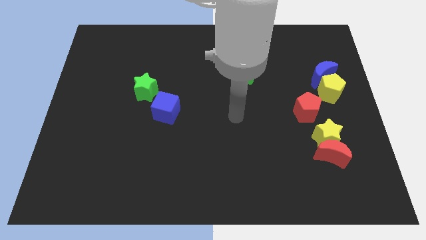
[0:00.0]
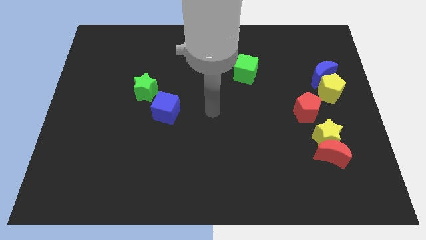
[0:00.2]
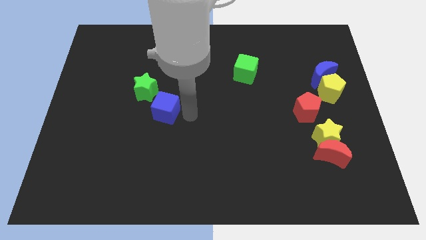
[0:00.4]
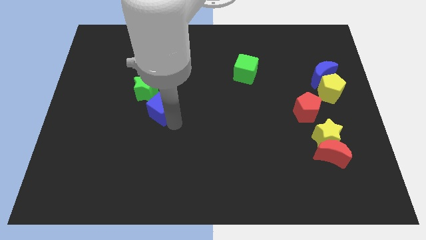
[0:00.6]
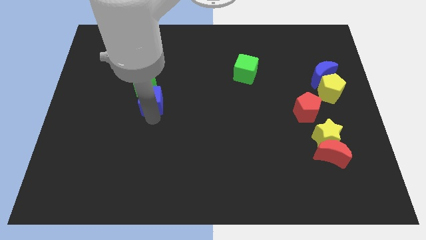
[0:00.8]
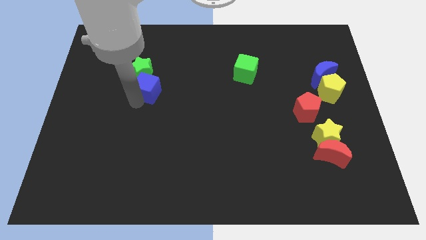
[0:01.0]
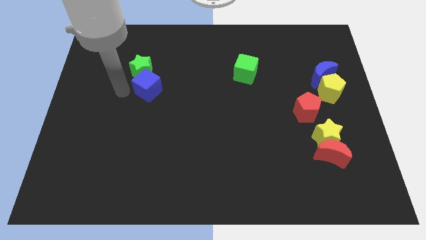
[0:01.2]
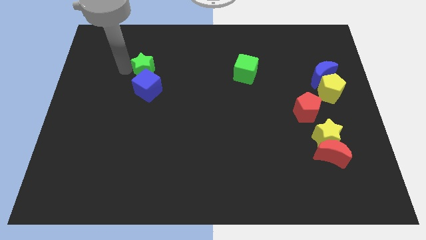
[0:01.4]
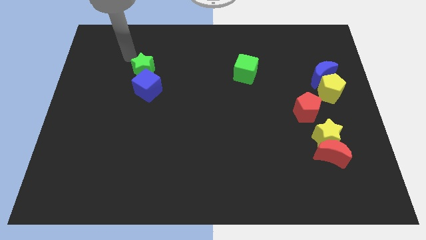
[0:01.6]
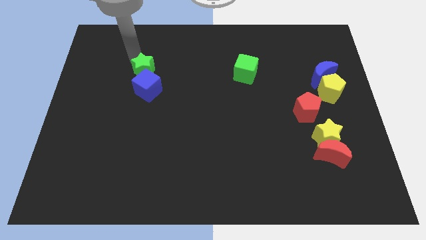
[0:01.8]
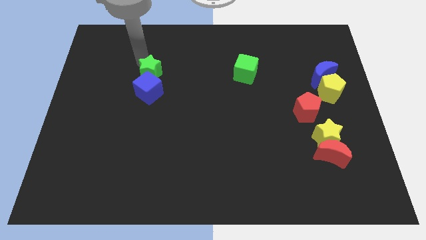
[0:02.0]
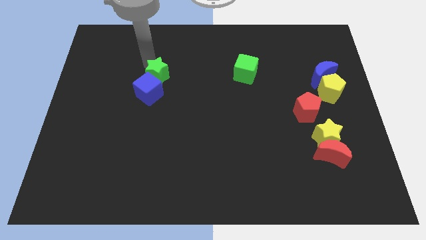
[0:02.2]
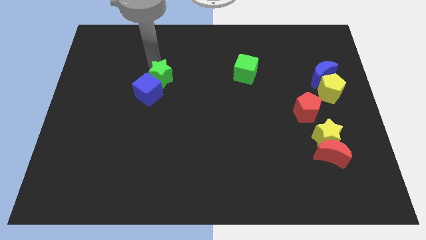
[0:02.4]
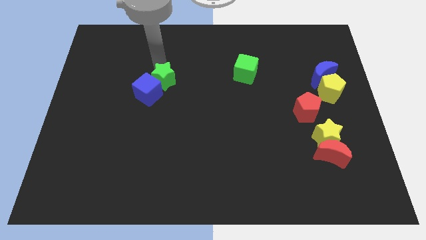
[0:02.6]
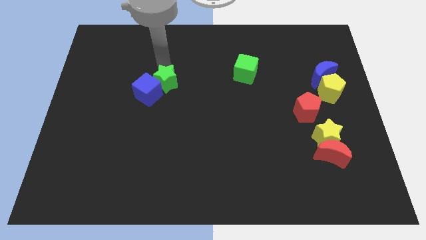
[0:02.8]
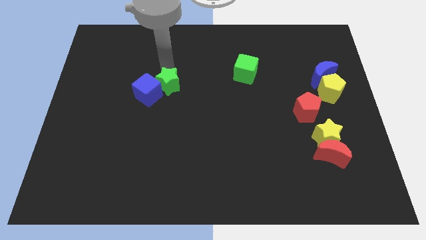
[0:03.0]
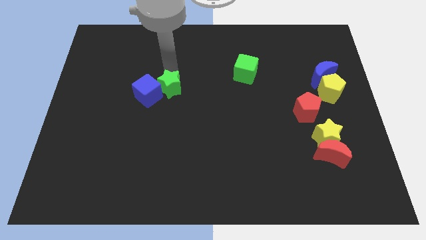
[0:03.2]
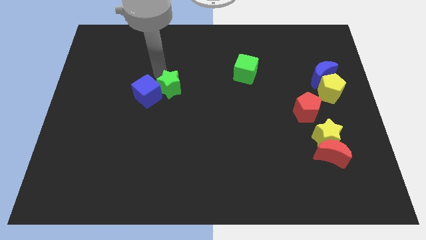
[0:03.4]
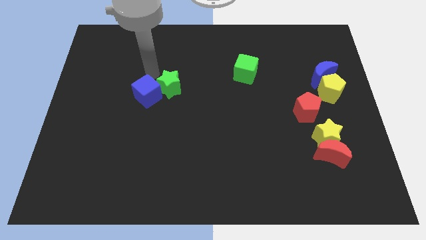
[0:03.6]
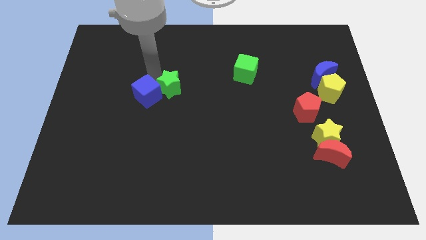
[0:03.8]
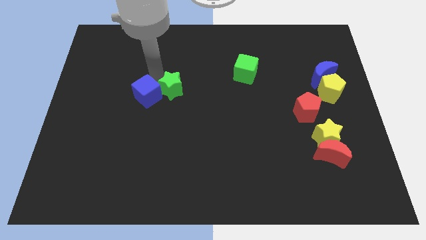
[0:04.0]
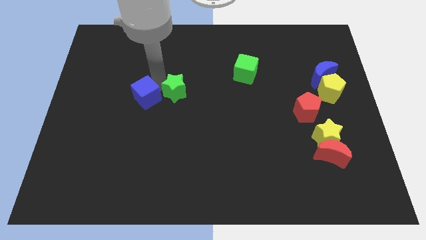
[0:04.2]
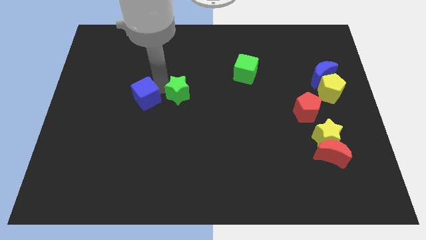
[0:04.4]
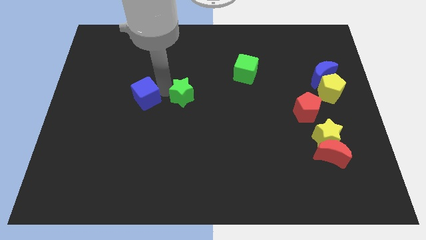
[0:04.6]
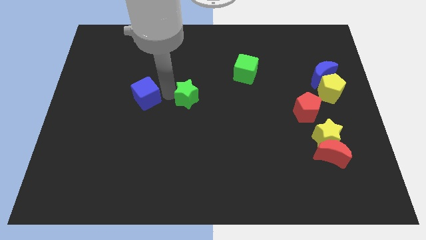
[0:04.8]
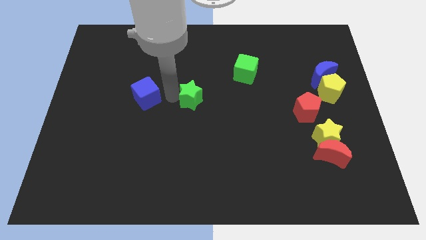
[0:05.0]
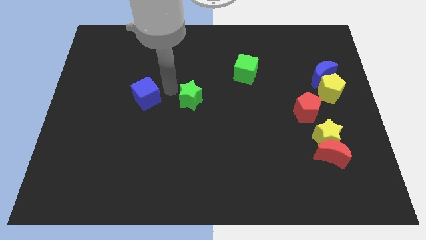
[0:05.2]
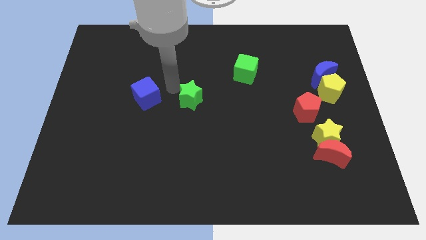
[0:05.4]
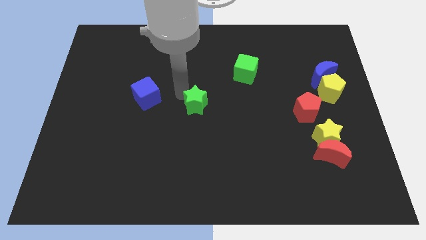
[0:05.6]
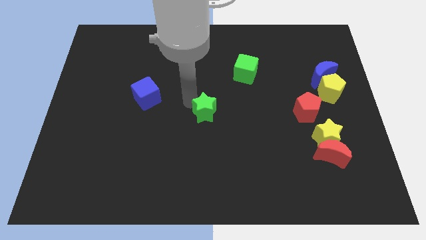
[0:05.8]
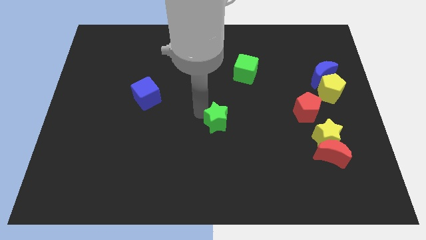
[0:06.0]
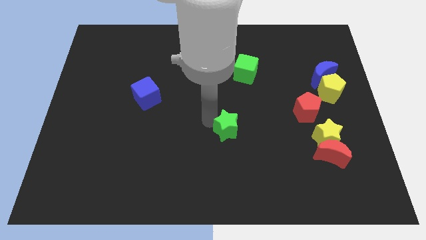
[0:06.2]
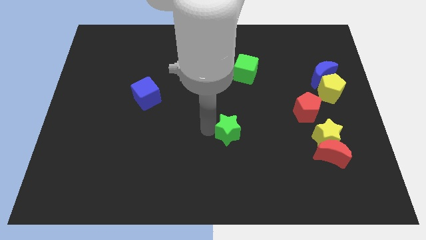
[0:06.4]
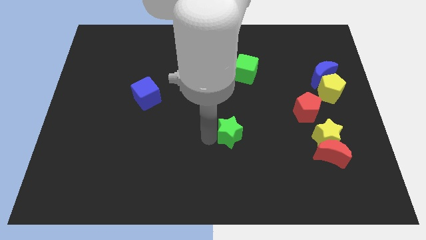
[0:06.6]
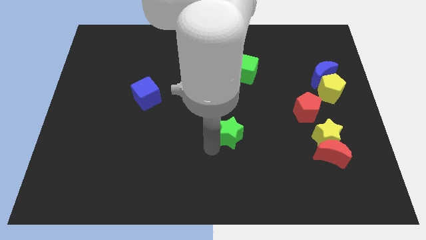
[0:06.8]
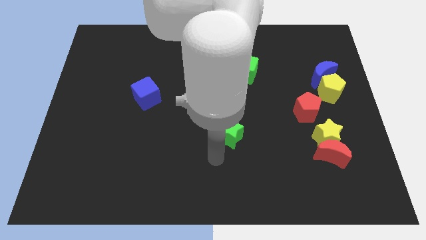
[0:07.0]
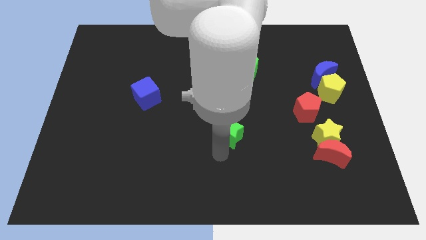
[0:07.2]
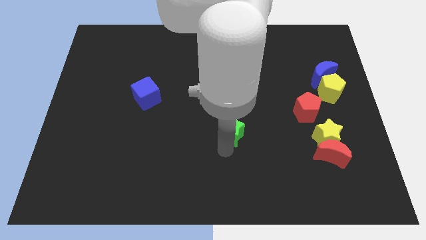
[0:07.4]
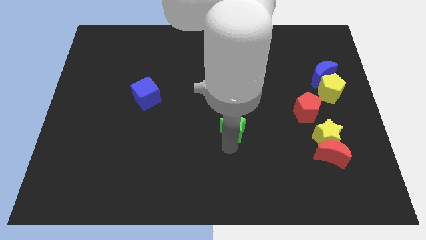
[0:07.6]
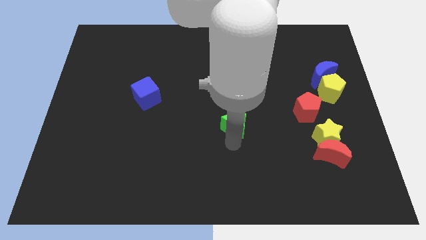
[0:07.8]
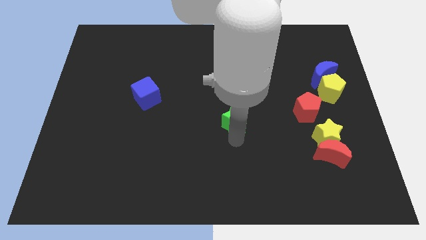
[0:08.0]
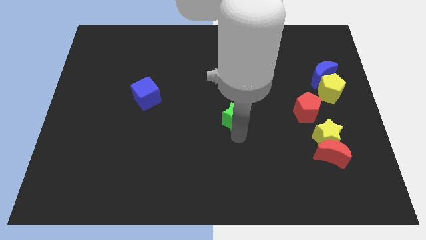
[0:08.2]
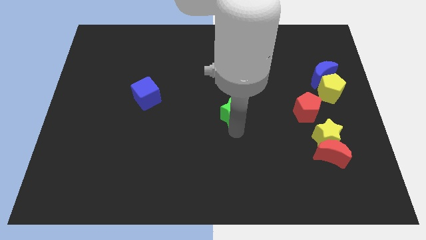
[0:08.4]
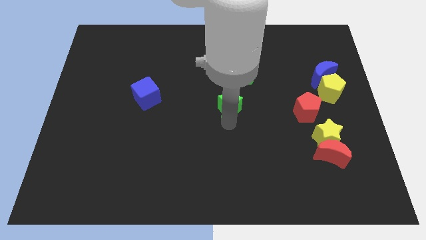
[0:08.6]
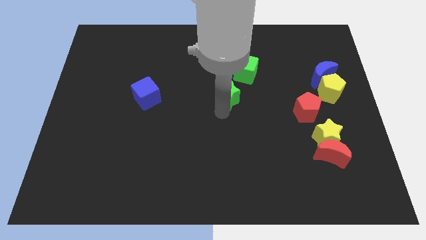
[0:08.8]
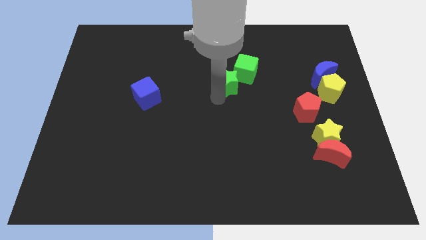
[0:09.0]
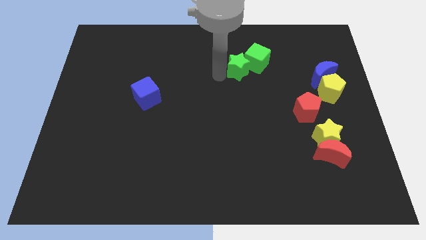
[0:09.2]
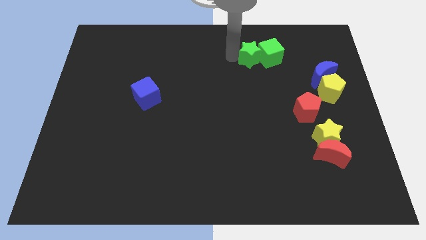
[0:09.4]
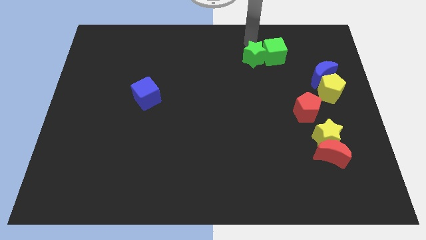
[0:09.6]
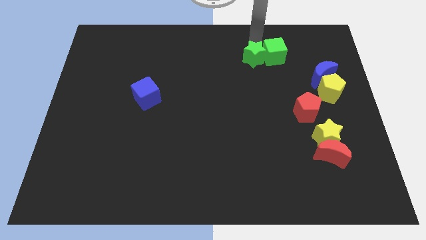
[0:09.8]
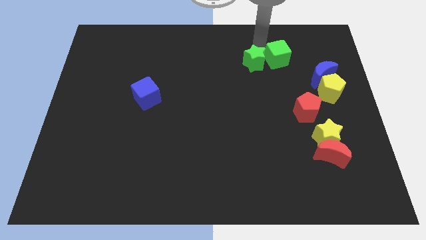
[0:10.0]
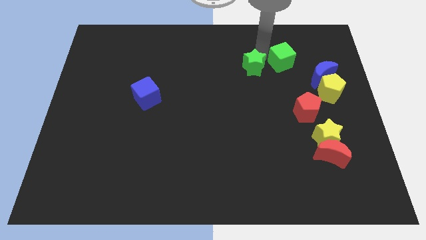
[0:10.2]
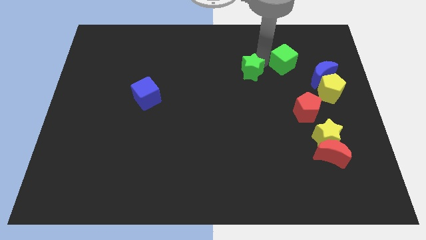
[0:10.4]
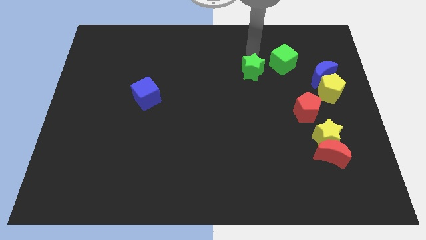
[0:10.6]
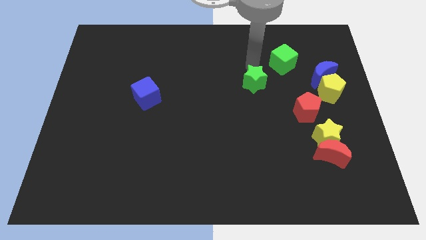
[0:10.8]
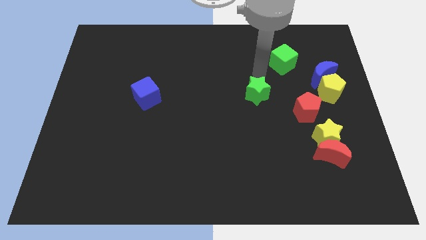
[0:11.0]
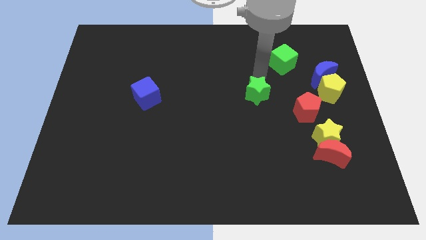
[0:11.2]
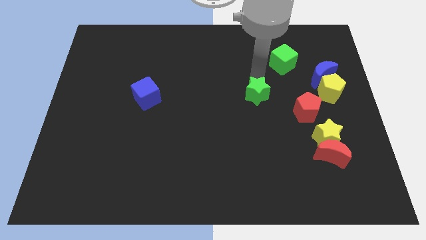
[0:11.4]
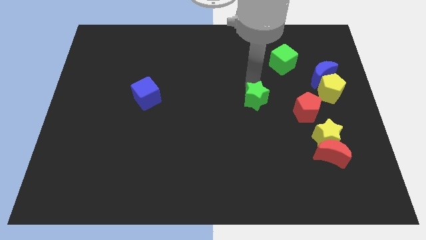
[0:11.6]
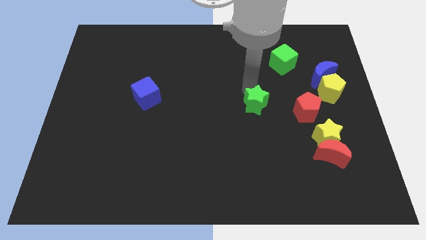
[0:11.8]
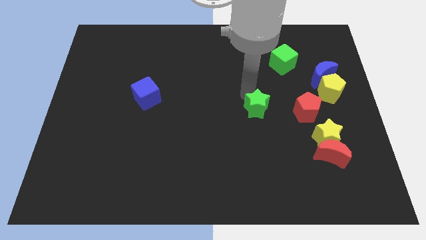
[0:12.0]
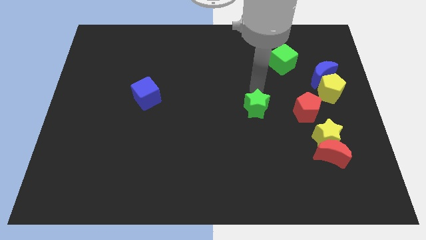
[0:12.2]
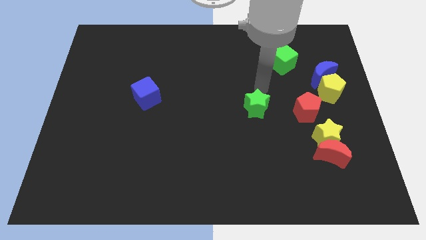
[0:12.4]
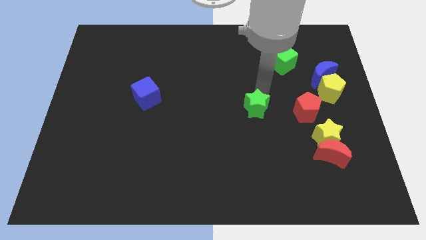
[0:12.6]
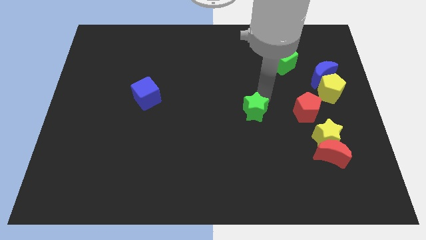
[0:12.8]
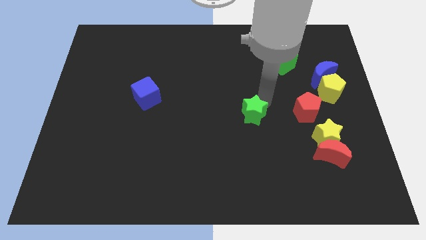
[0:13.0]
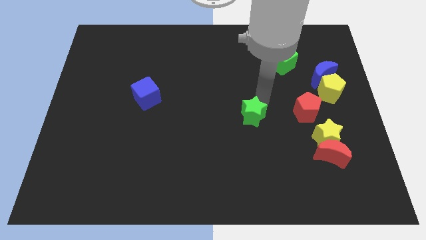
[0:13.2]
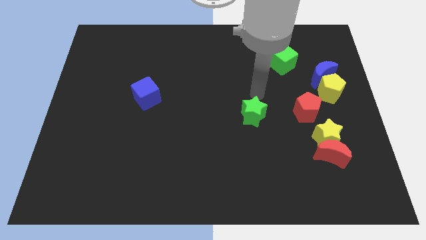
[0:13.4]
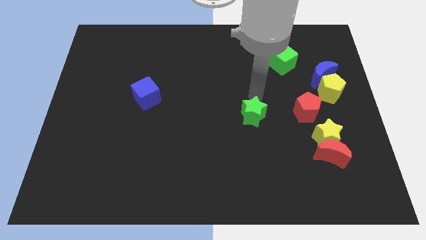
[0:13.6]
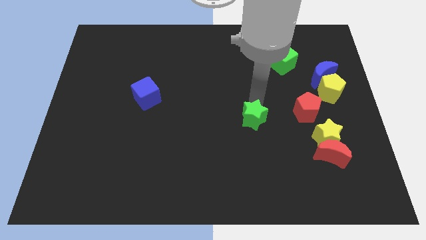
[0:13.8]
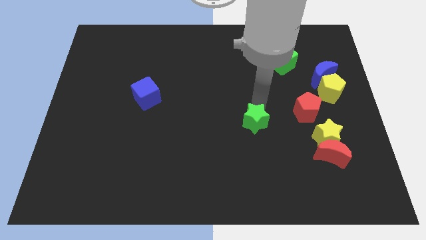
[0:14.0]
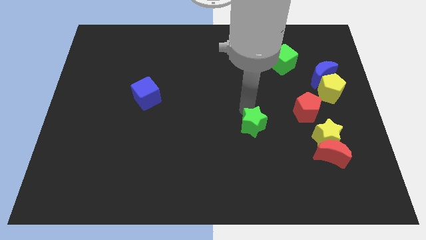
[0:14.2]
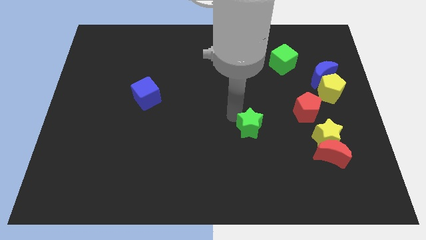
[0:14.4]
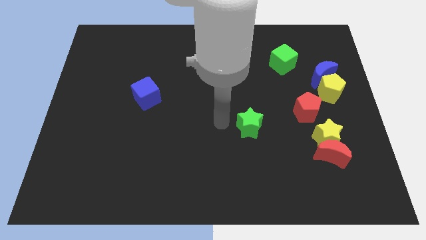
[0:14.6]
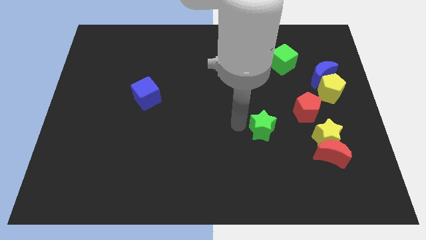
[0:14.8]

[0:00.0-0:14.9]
slide the green star diagonally down and to the left of the red pentagon
